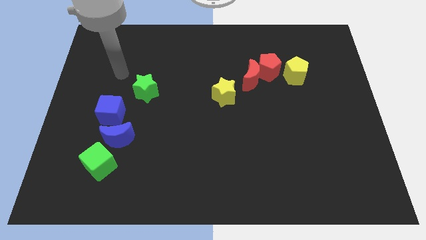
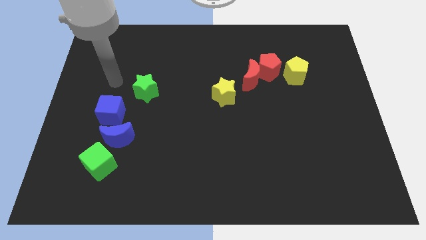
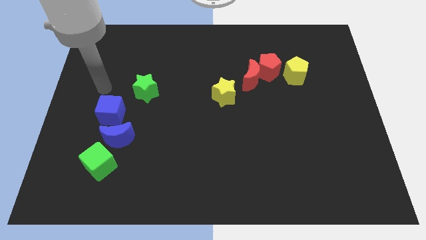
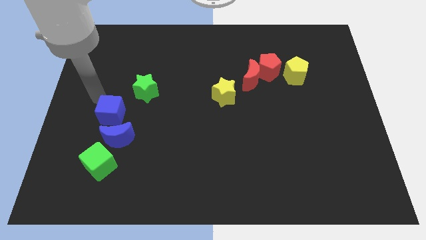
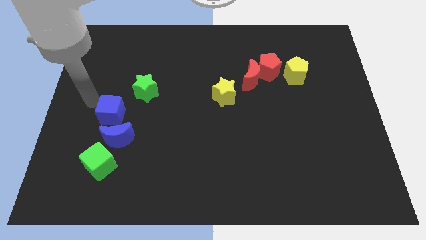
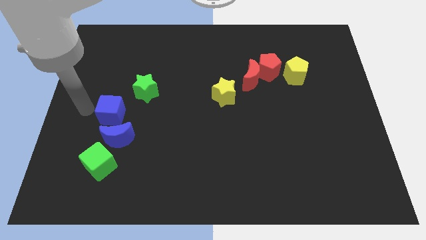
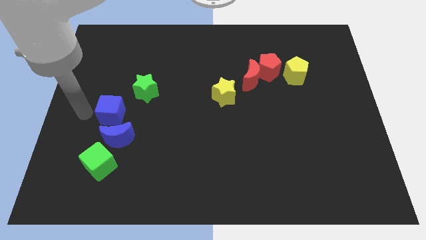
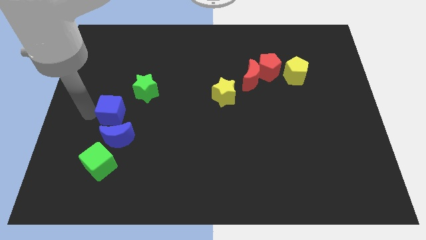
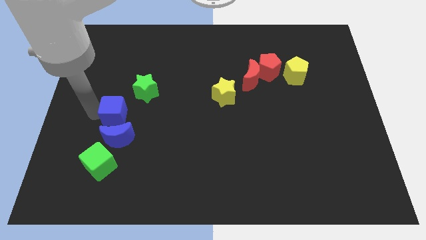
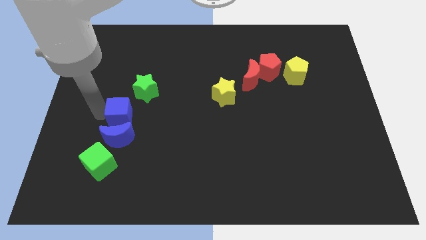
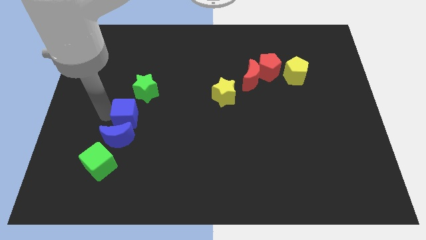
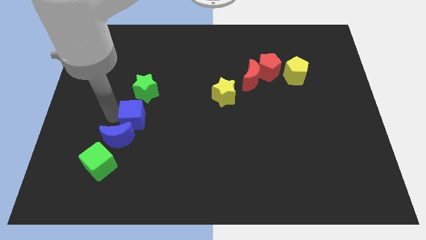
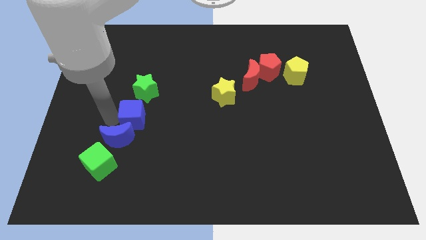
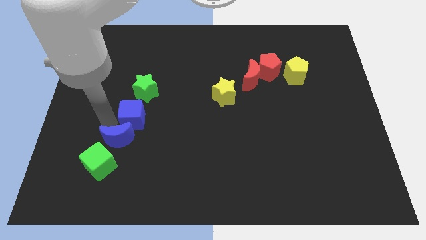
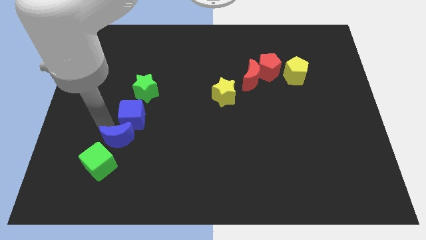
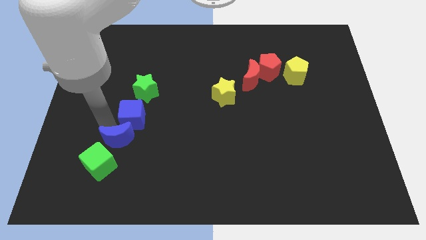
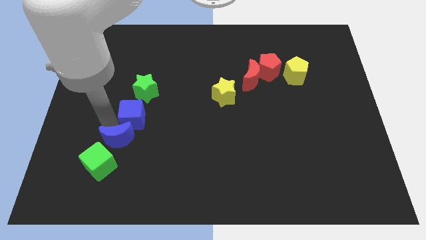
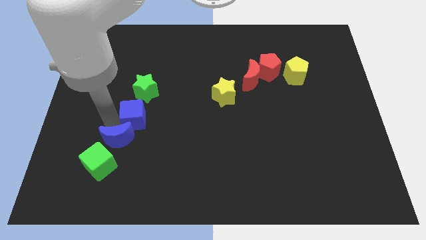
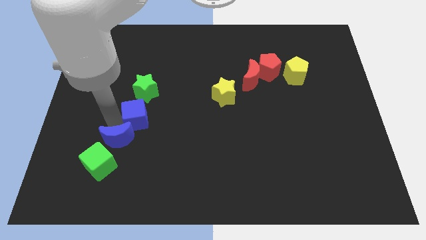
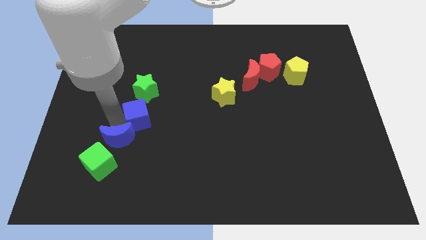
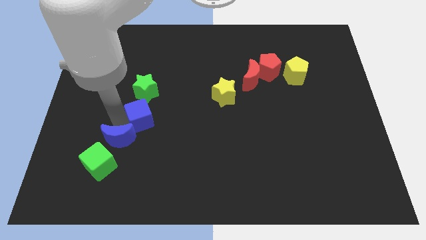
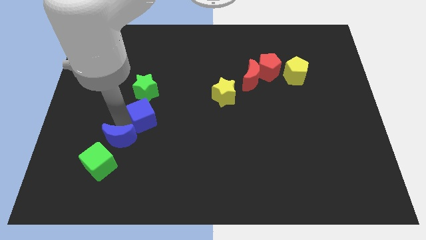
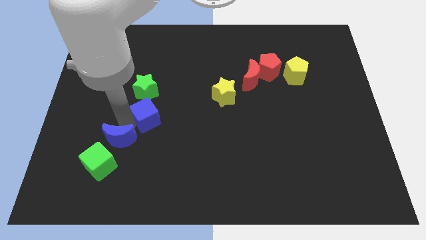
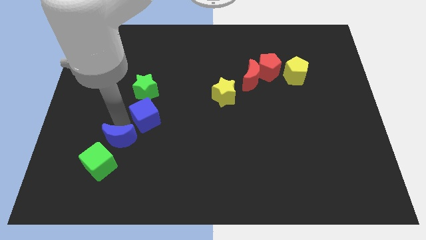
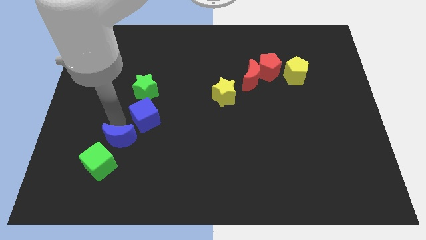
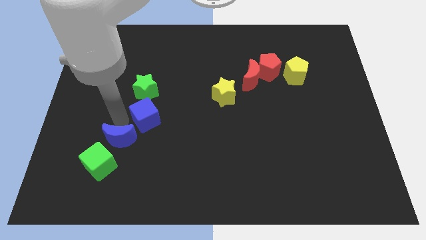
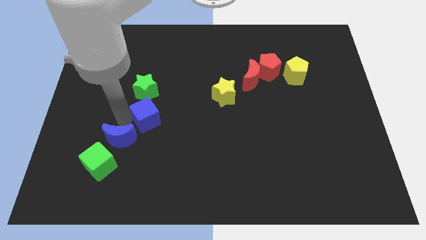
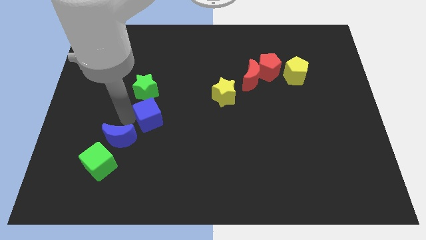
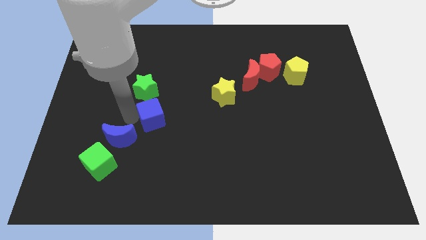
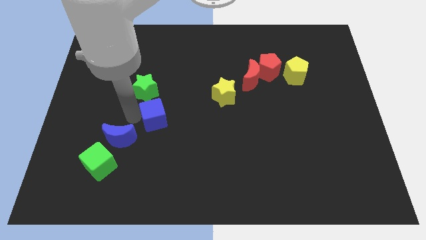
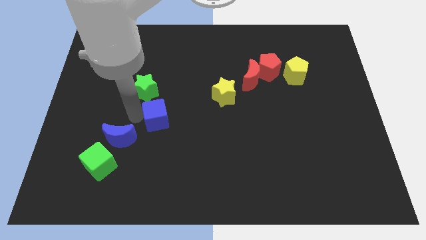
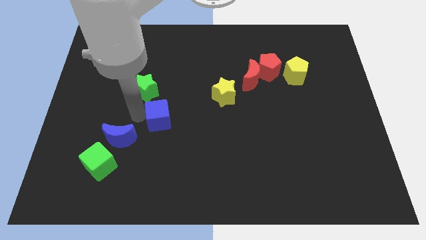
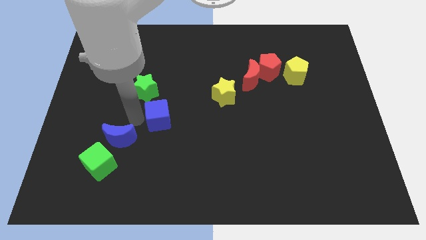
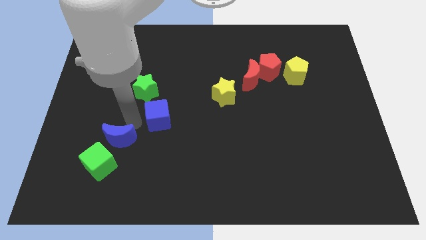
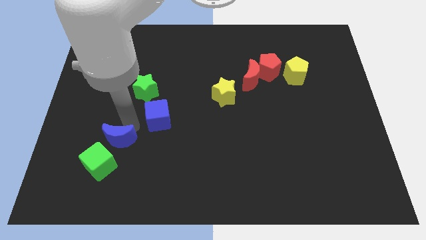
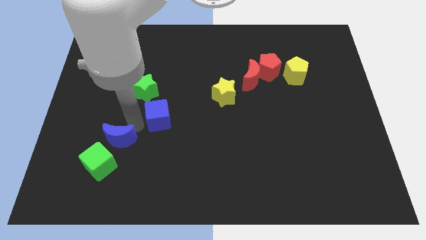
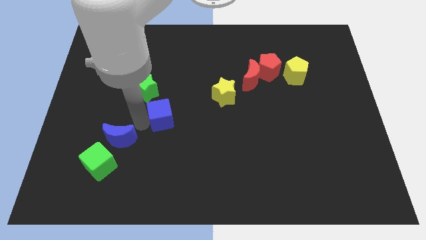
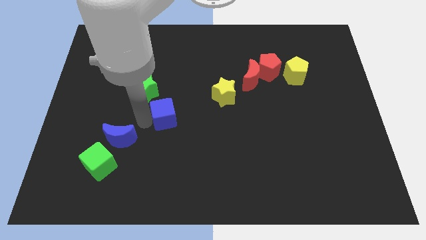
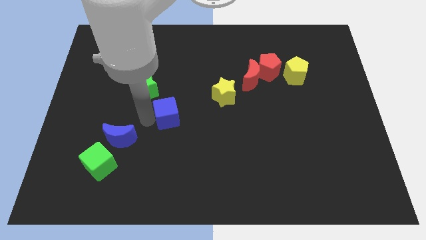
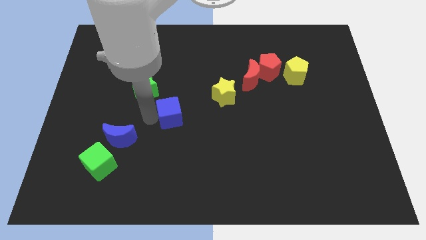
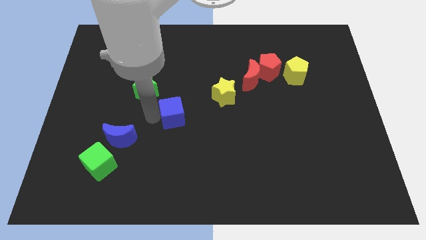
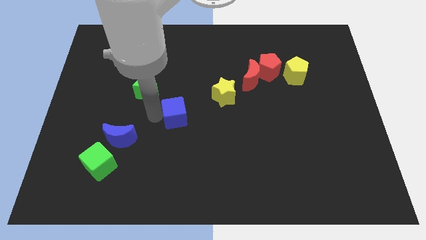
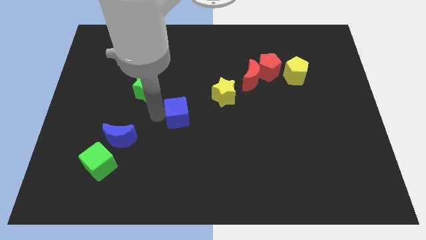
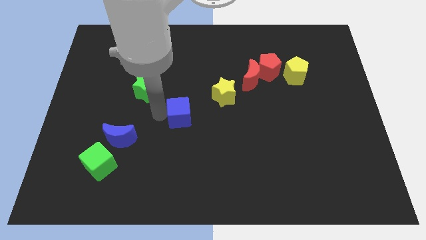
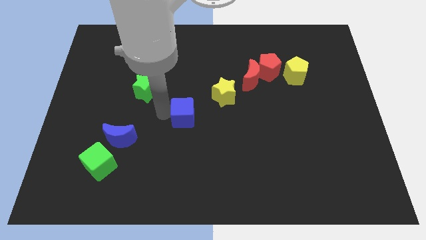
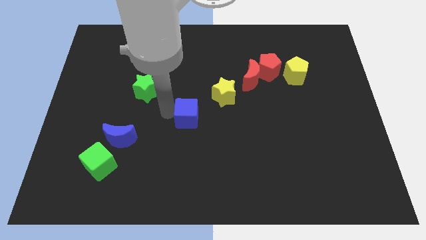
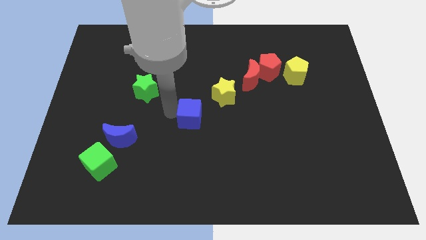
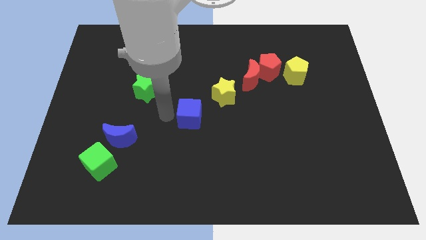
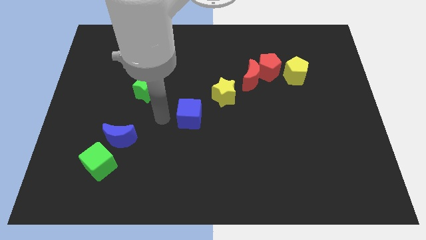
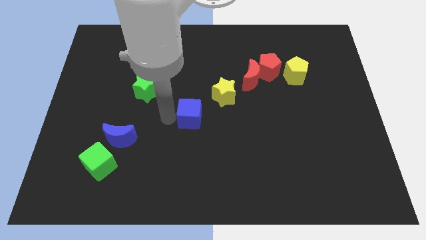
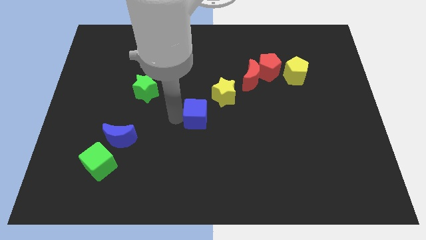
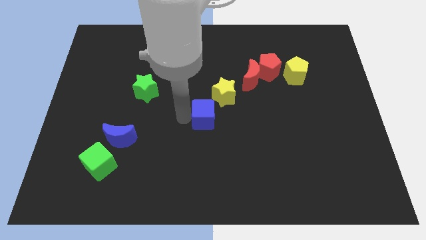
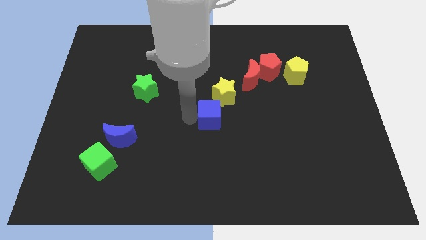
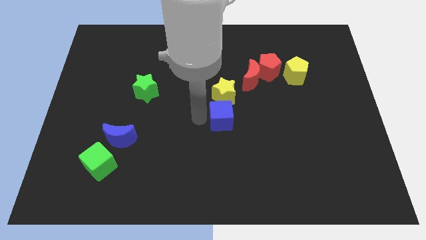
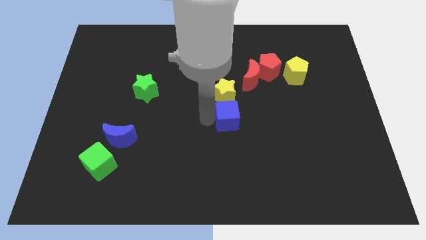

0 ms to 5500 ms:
push the blue cube to the bottom right of the yellow star

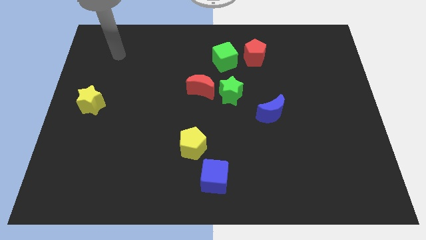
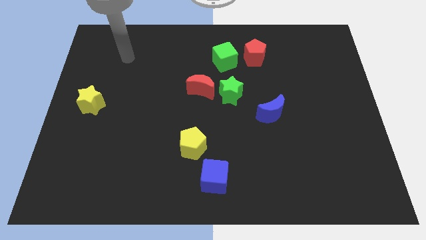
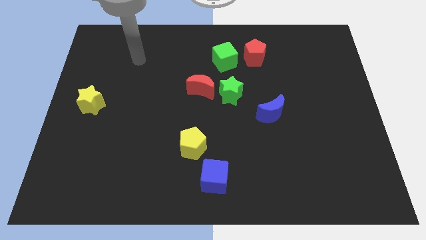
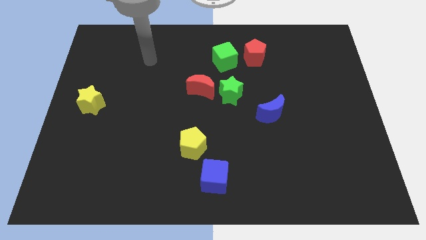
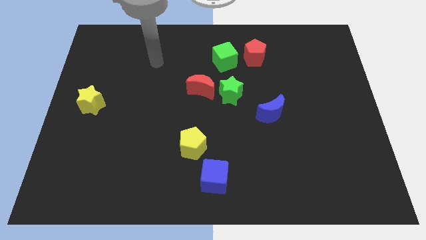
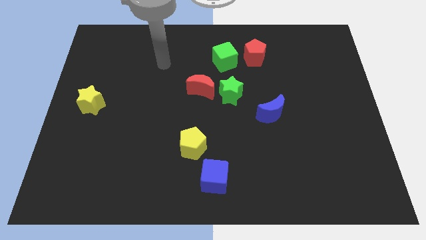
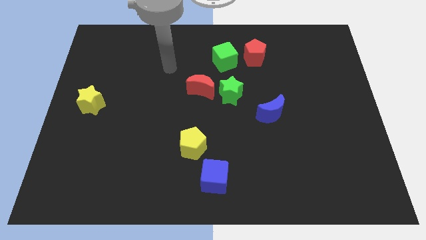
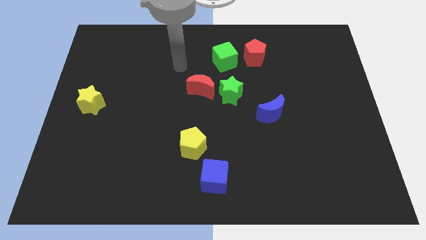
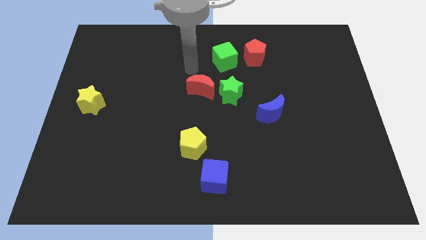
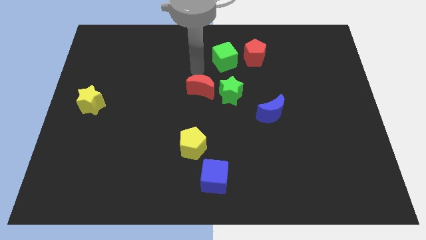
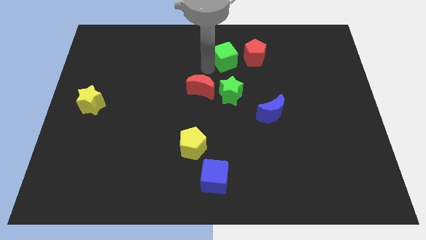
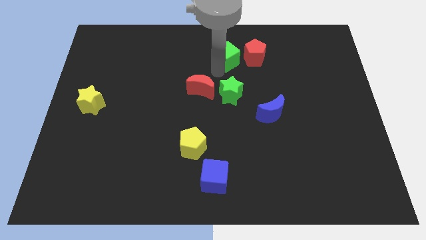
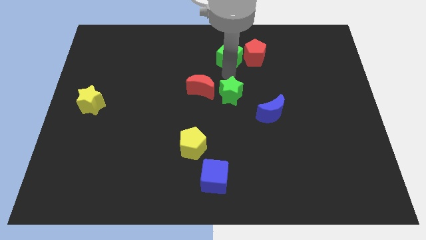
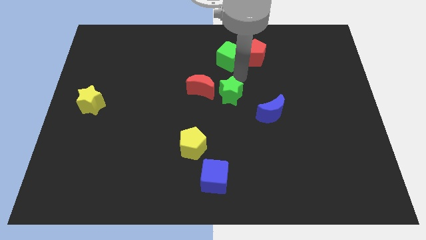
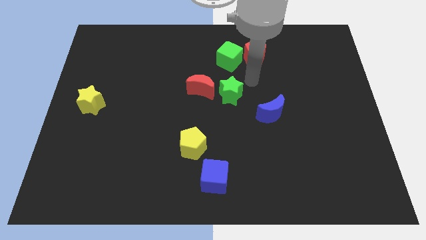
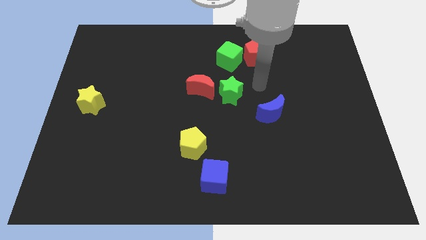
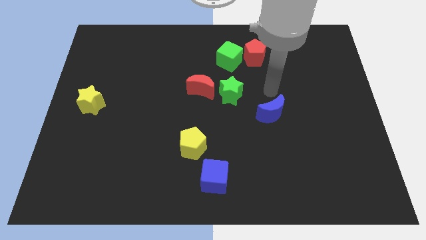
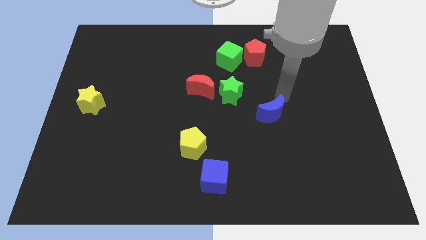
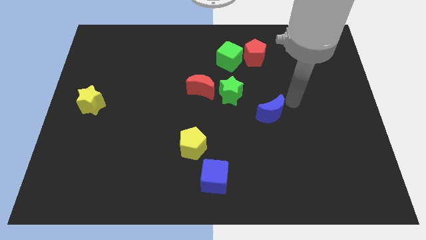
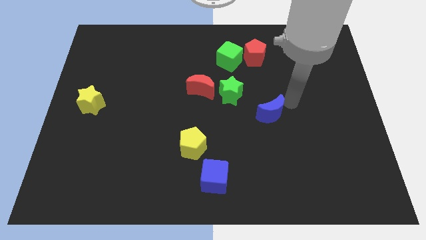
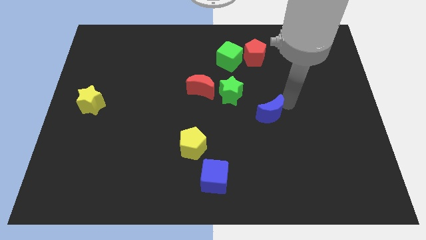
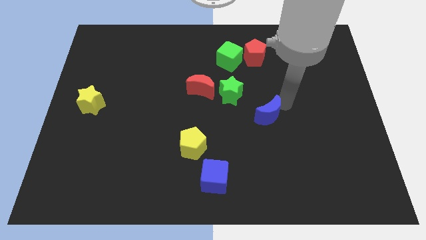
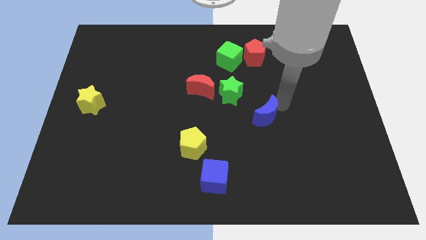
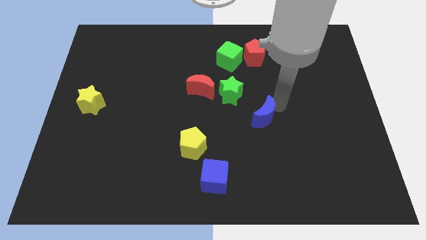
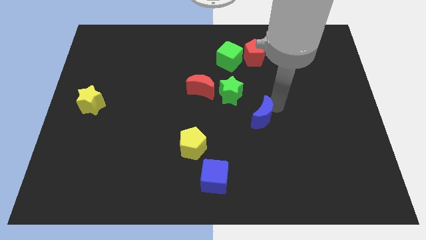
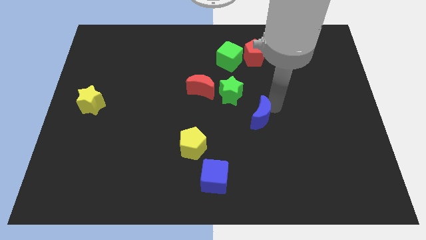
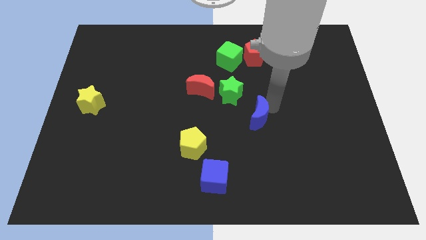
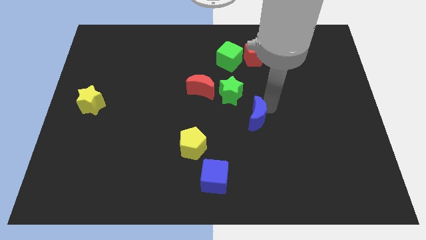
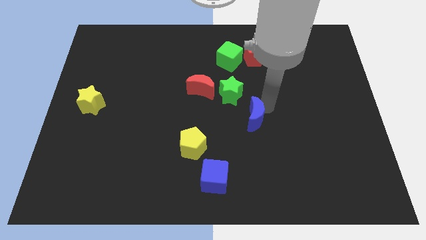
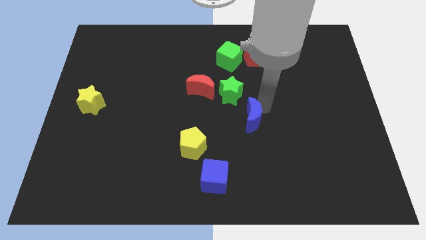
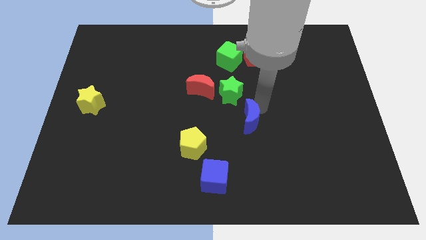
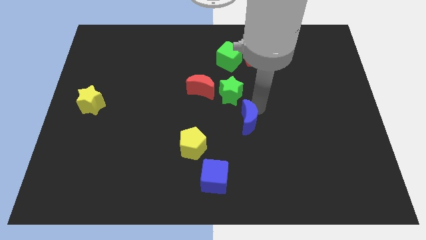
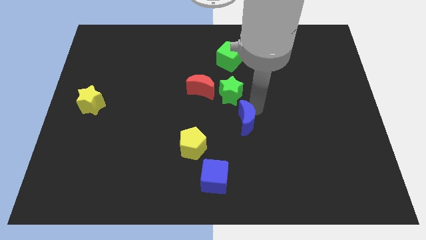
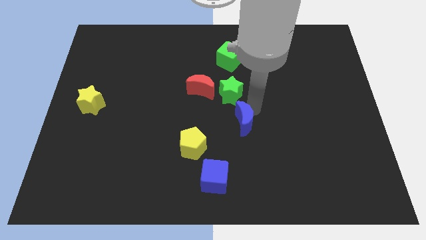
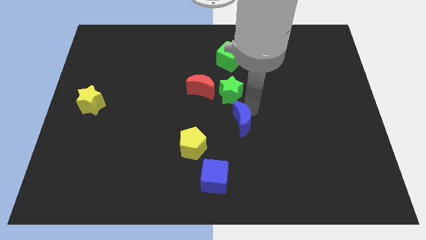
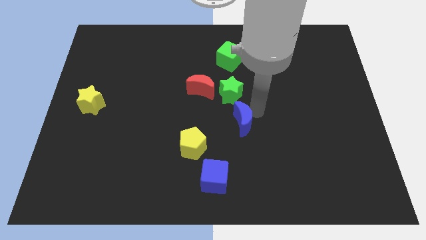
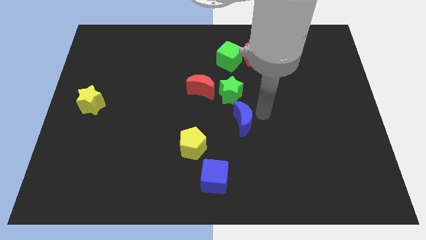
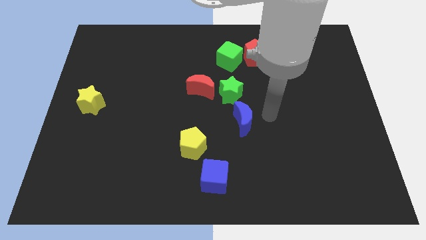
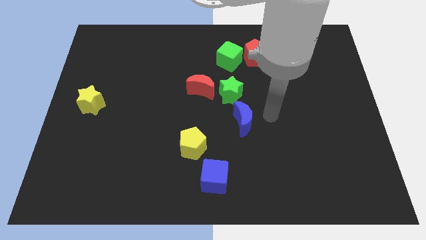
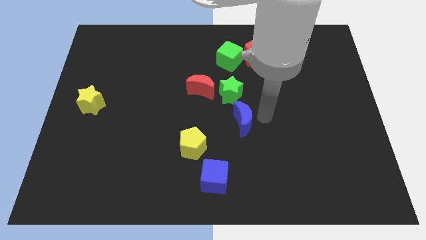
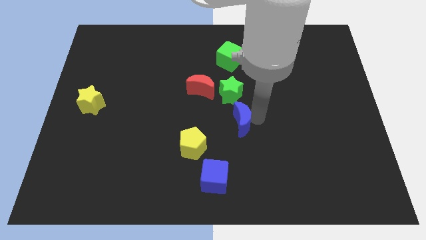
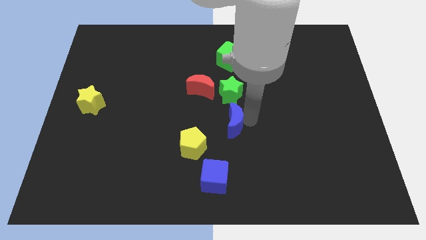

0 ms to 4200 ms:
put the blue moon diagonally up and to the right of the yellow pentagon
